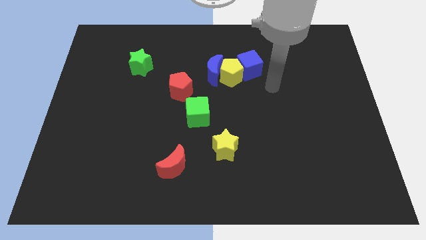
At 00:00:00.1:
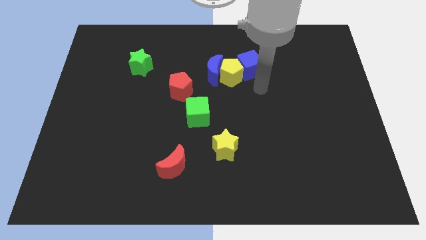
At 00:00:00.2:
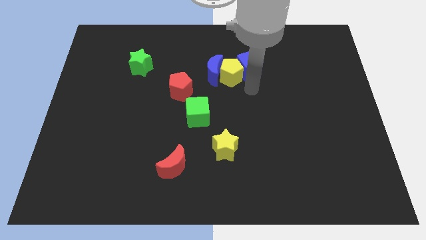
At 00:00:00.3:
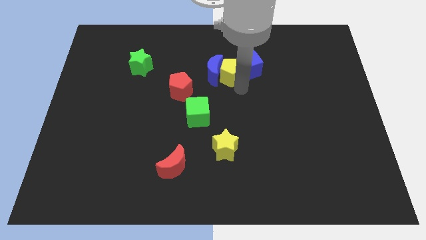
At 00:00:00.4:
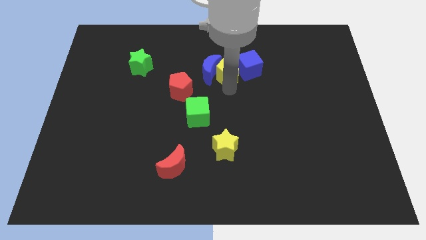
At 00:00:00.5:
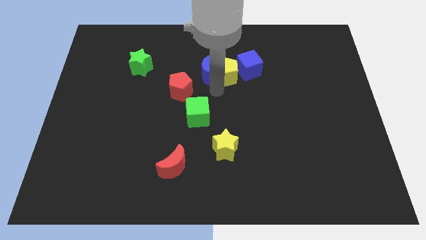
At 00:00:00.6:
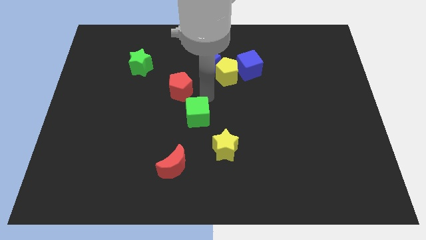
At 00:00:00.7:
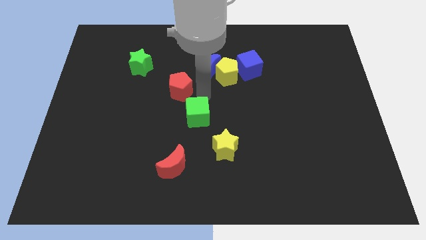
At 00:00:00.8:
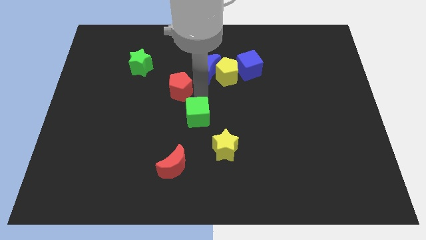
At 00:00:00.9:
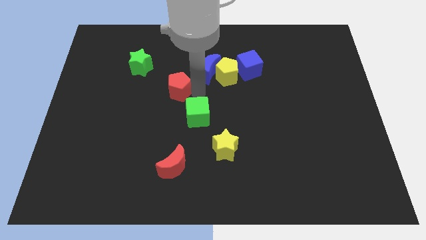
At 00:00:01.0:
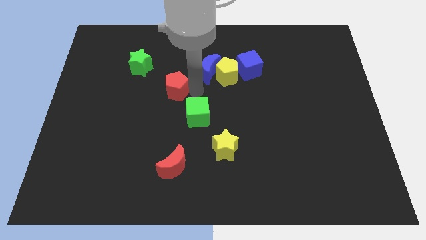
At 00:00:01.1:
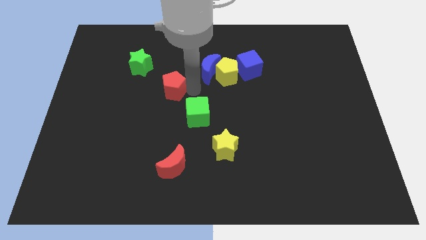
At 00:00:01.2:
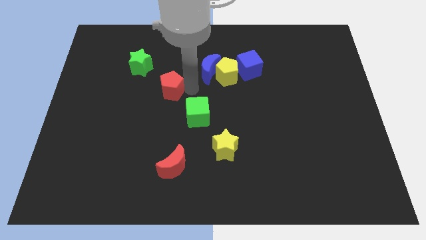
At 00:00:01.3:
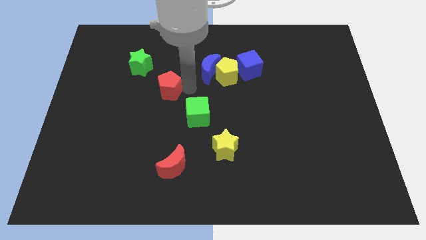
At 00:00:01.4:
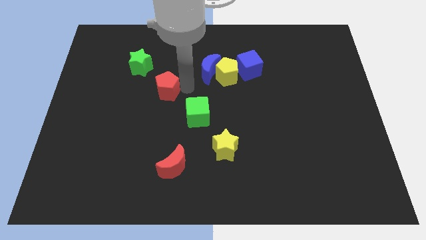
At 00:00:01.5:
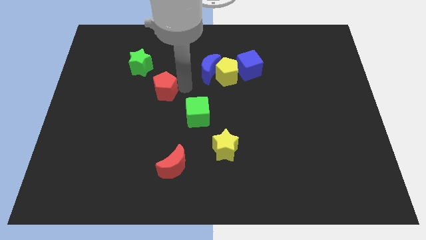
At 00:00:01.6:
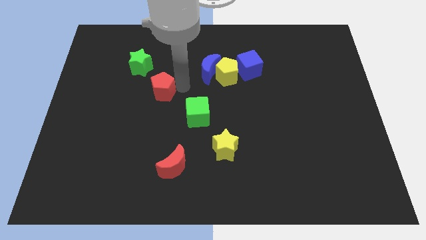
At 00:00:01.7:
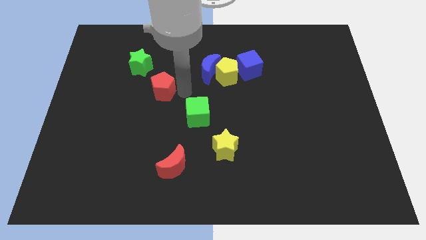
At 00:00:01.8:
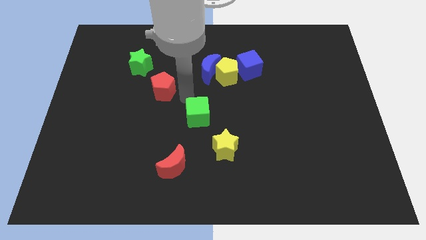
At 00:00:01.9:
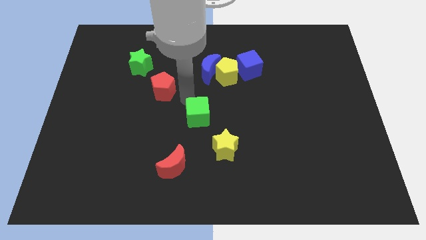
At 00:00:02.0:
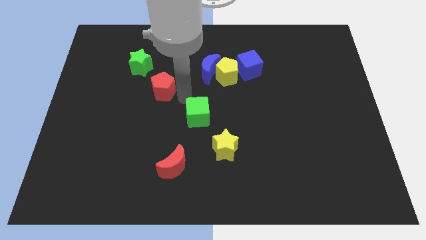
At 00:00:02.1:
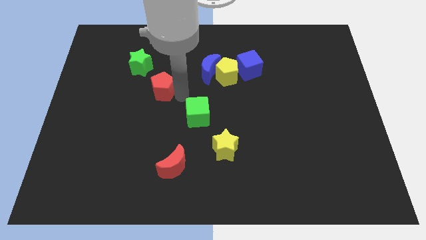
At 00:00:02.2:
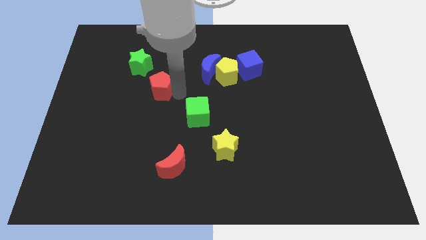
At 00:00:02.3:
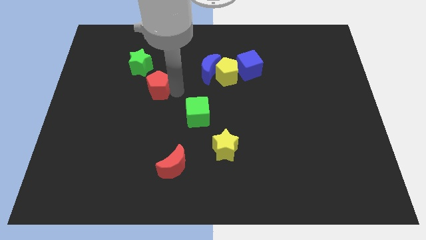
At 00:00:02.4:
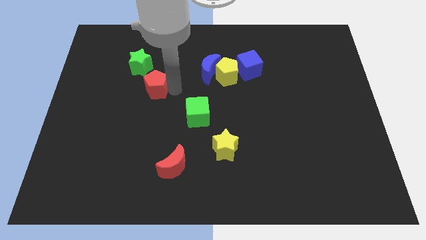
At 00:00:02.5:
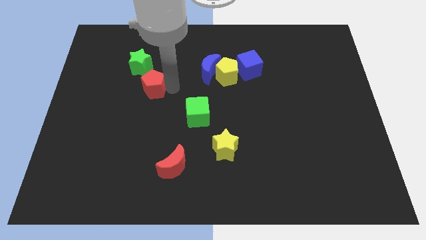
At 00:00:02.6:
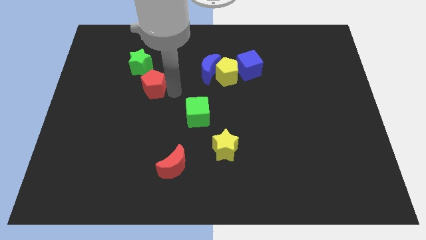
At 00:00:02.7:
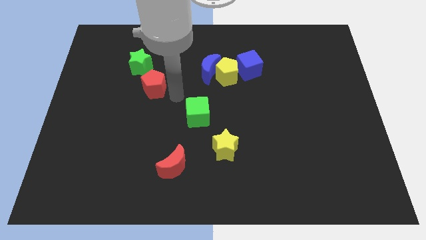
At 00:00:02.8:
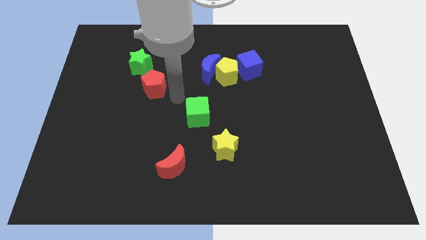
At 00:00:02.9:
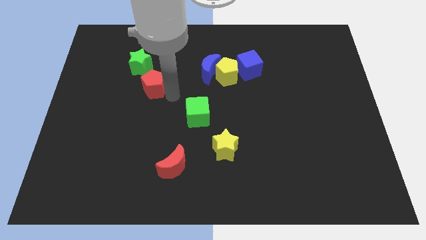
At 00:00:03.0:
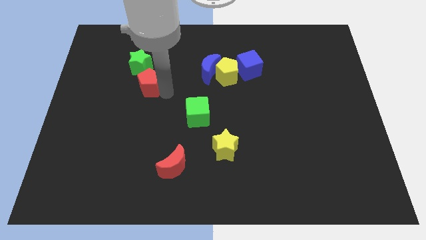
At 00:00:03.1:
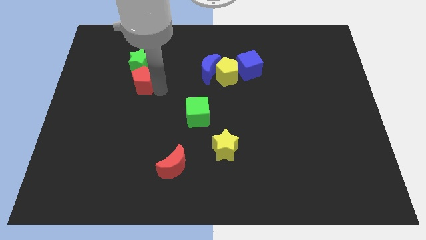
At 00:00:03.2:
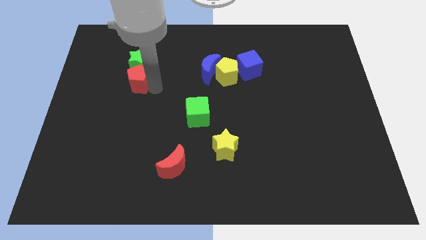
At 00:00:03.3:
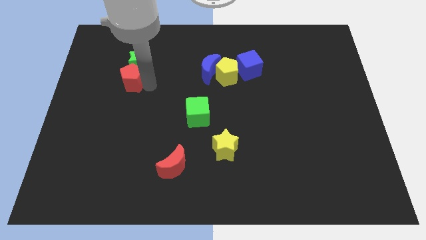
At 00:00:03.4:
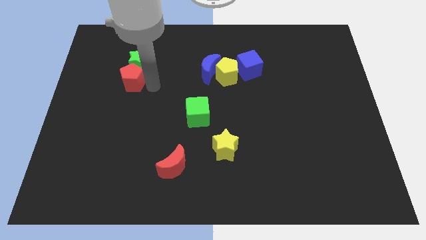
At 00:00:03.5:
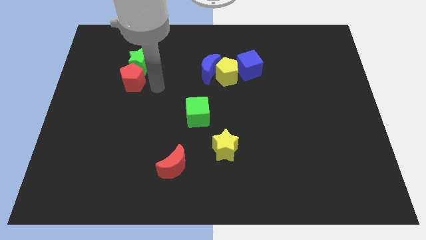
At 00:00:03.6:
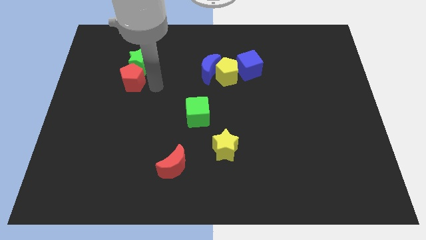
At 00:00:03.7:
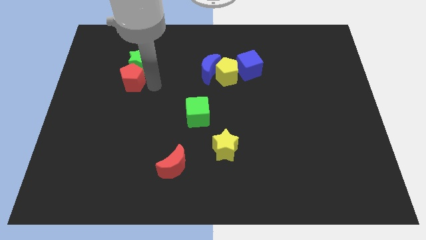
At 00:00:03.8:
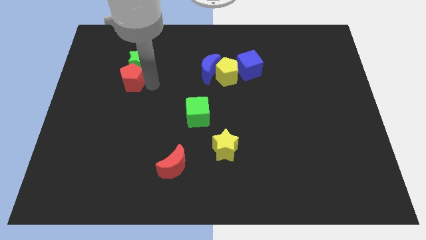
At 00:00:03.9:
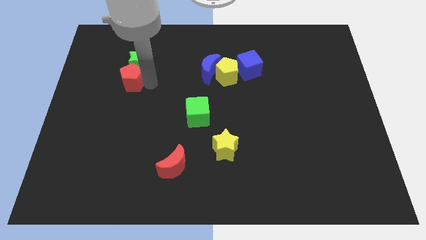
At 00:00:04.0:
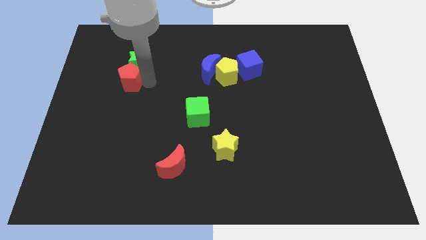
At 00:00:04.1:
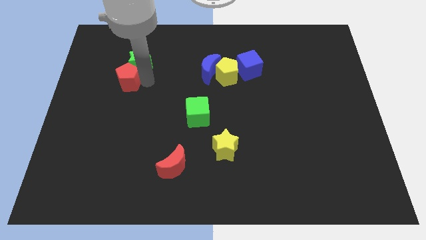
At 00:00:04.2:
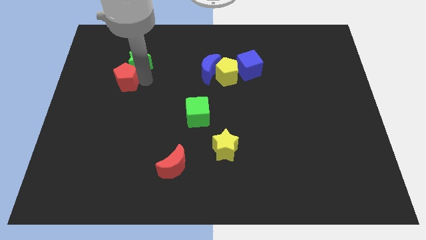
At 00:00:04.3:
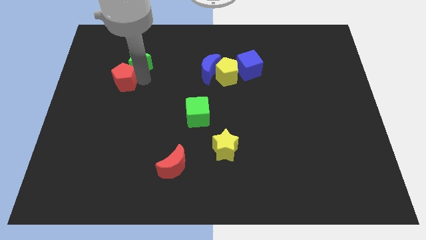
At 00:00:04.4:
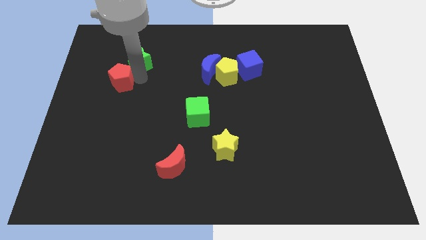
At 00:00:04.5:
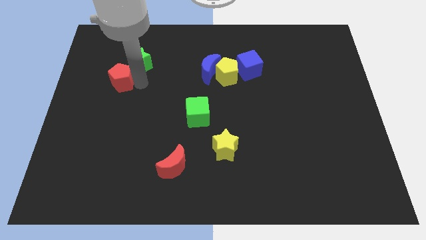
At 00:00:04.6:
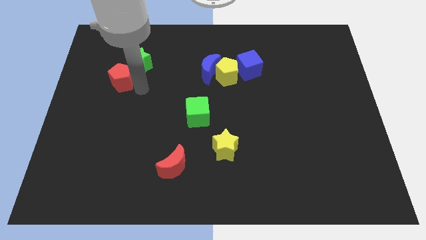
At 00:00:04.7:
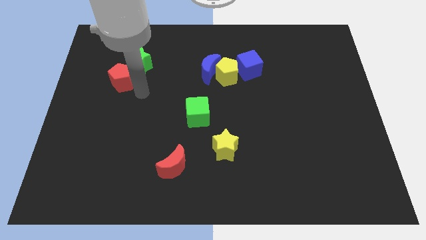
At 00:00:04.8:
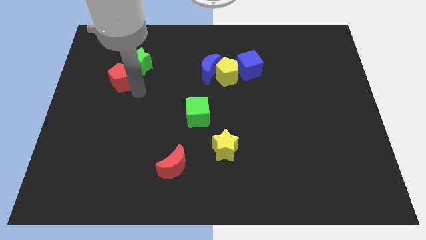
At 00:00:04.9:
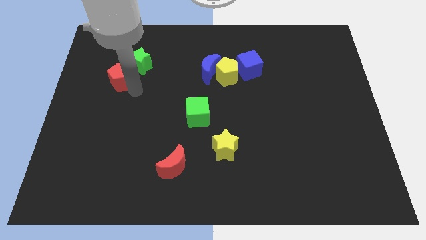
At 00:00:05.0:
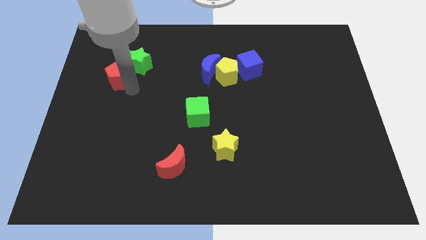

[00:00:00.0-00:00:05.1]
push the red pentagon to the left side of the green star

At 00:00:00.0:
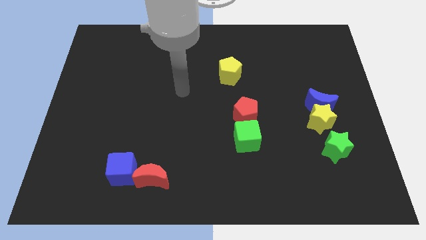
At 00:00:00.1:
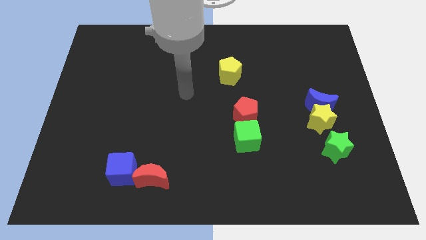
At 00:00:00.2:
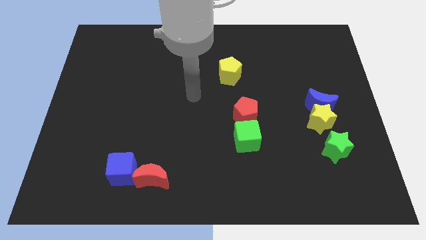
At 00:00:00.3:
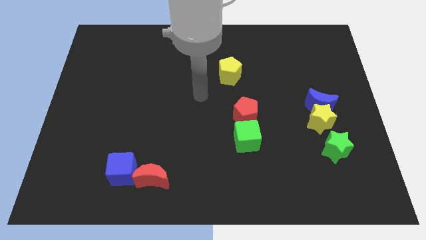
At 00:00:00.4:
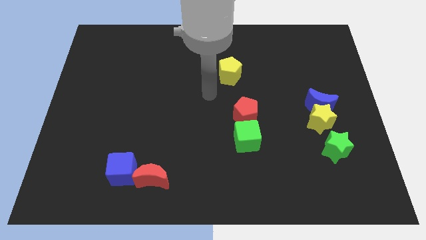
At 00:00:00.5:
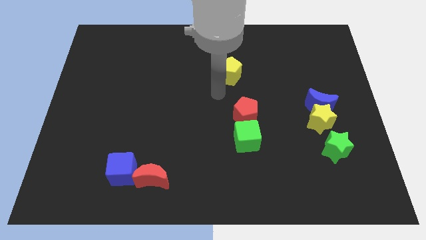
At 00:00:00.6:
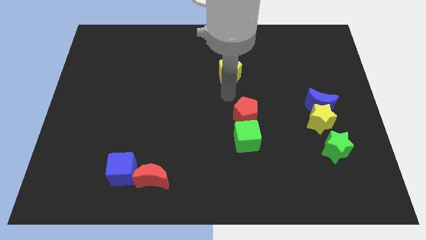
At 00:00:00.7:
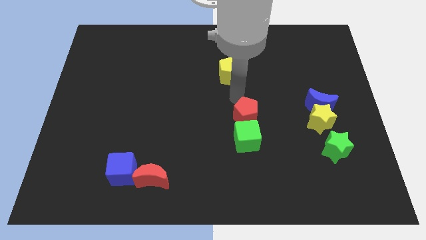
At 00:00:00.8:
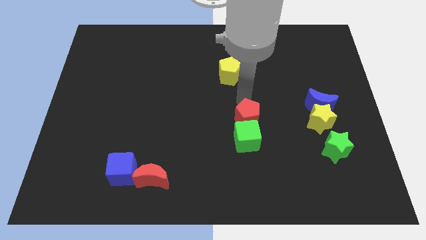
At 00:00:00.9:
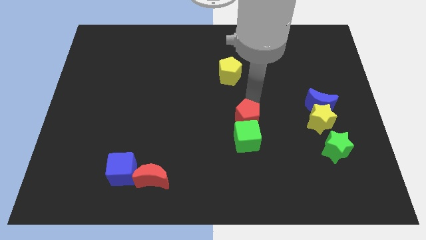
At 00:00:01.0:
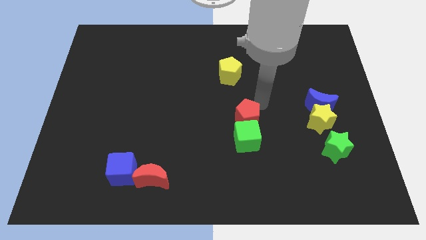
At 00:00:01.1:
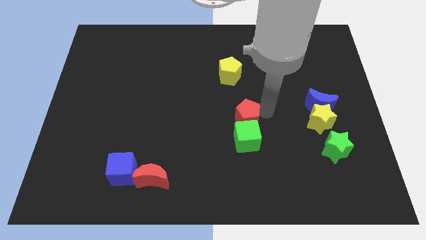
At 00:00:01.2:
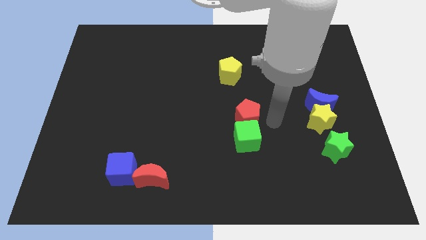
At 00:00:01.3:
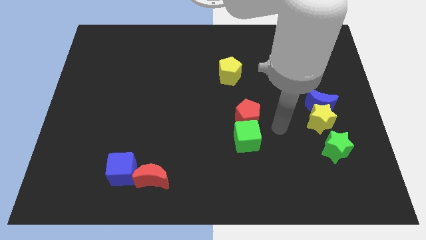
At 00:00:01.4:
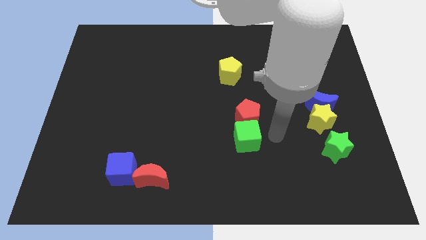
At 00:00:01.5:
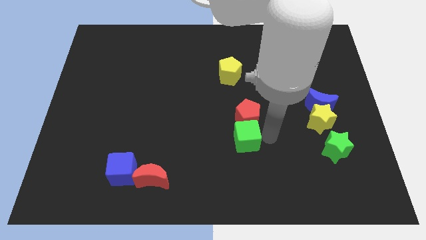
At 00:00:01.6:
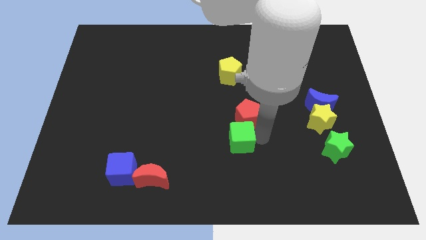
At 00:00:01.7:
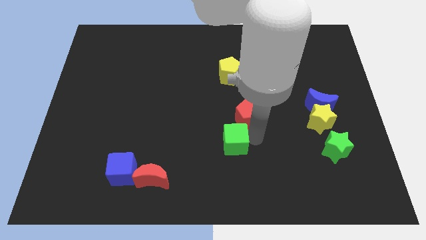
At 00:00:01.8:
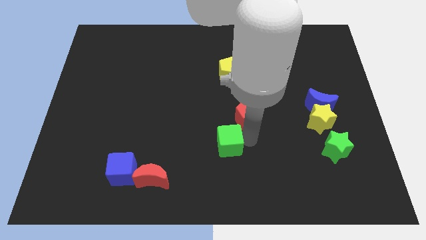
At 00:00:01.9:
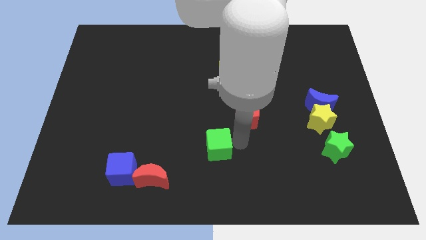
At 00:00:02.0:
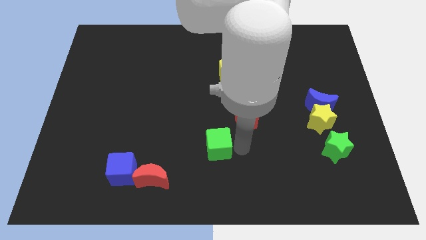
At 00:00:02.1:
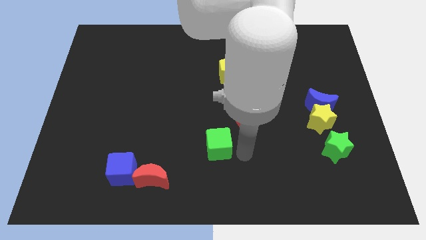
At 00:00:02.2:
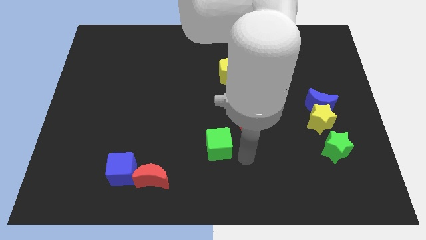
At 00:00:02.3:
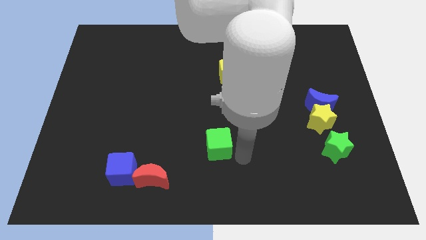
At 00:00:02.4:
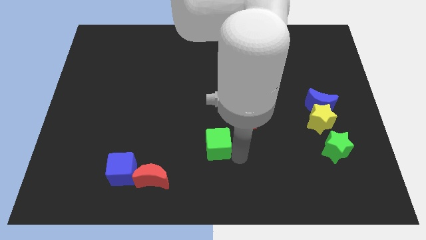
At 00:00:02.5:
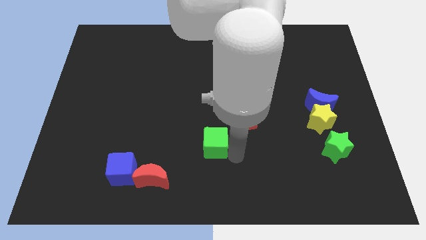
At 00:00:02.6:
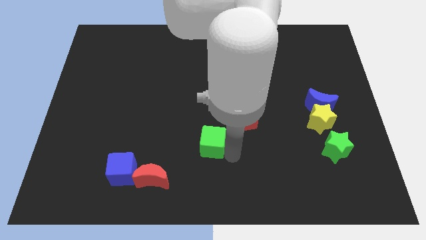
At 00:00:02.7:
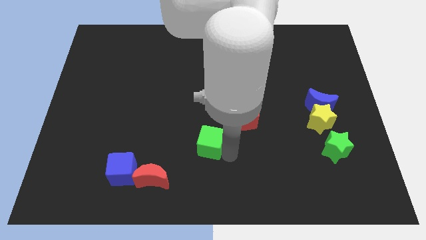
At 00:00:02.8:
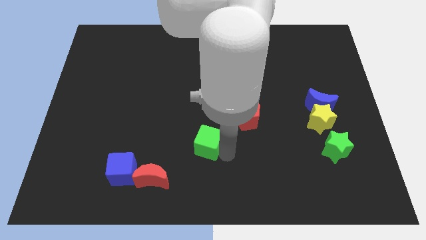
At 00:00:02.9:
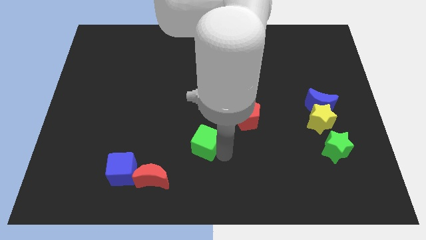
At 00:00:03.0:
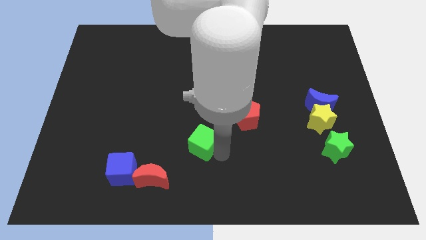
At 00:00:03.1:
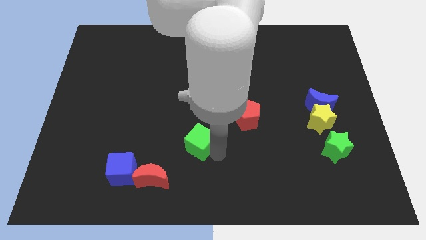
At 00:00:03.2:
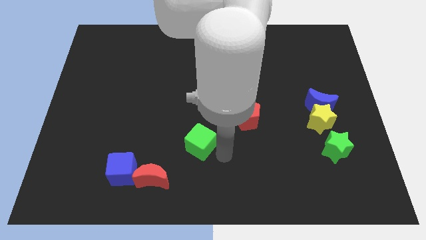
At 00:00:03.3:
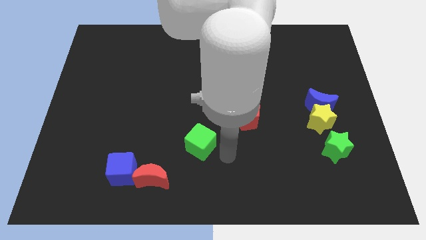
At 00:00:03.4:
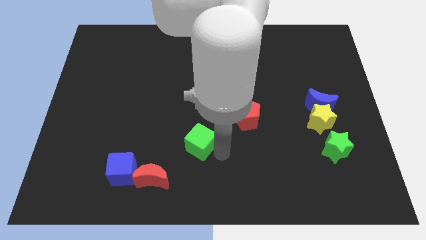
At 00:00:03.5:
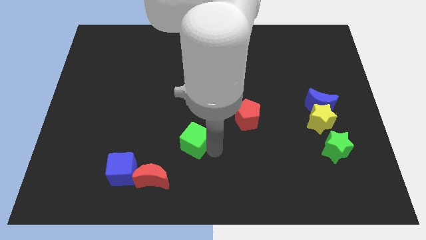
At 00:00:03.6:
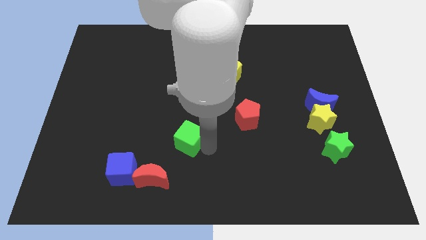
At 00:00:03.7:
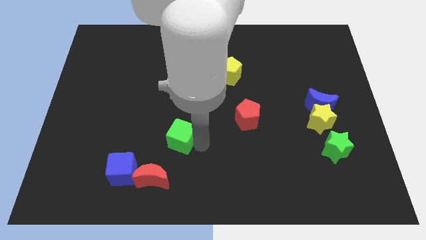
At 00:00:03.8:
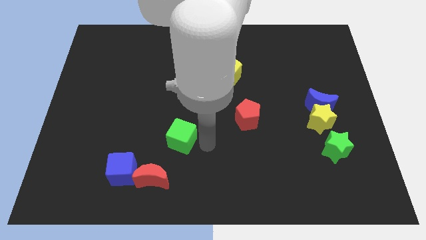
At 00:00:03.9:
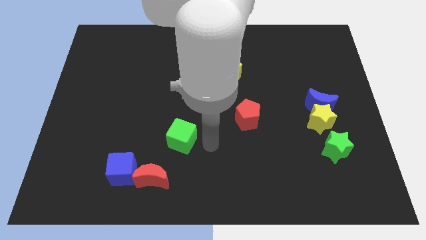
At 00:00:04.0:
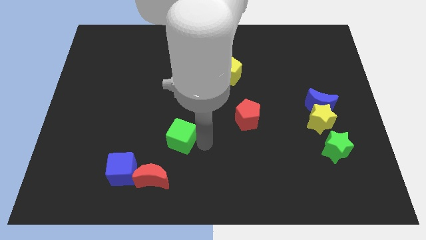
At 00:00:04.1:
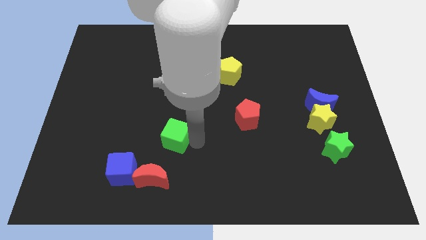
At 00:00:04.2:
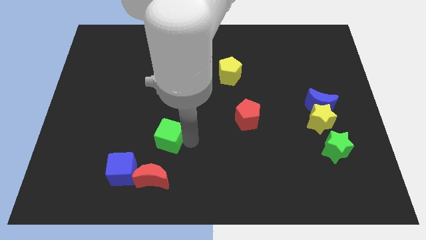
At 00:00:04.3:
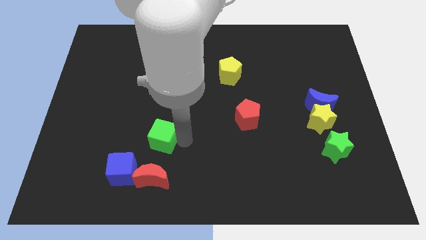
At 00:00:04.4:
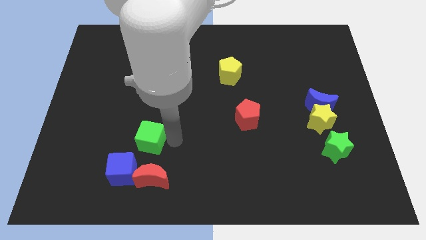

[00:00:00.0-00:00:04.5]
move the green cube to the top side of the blue cube
